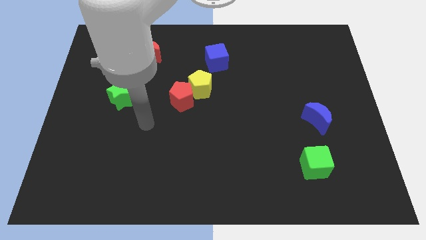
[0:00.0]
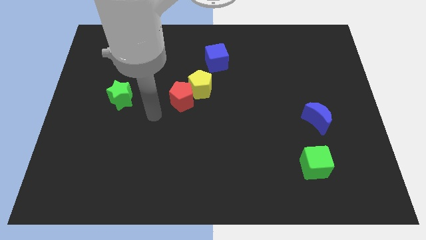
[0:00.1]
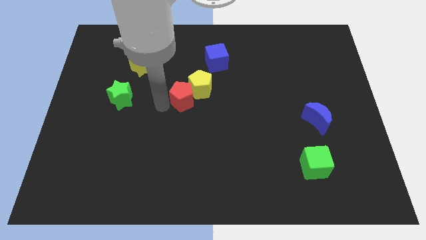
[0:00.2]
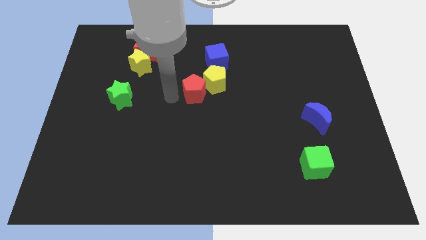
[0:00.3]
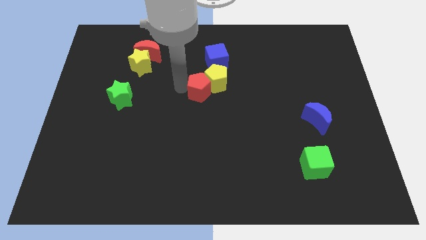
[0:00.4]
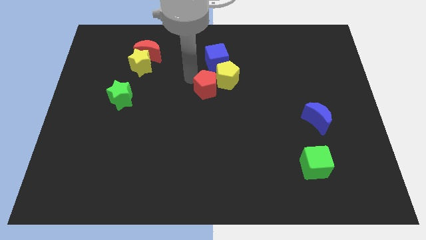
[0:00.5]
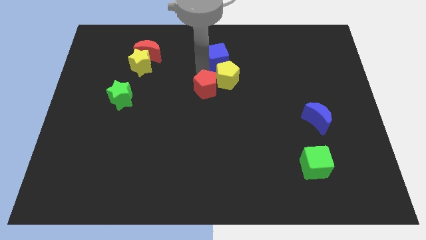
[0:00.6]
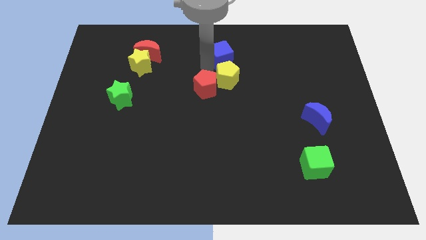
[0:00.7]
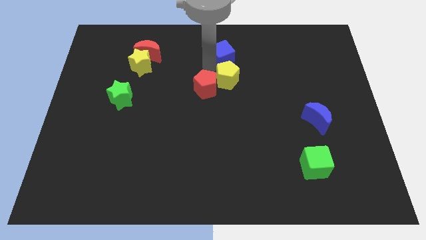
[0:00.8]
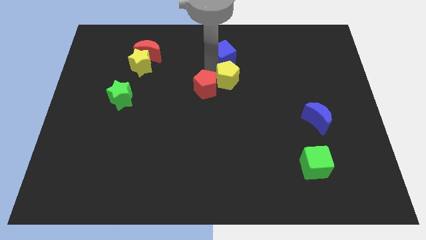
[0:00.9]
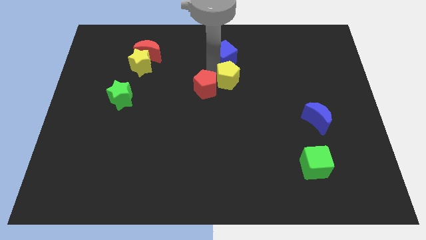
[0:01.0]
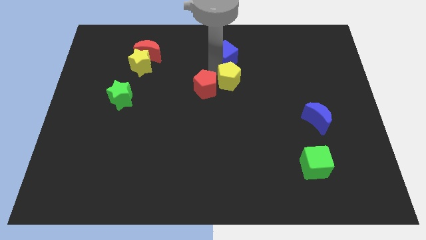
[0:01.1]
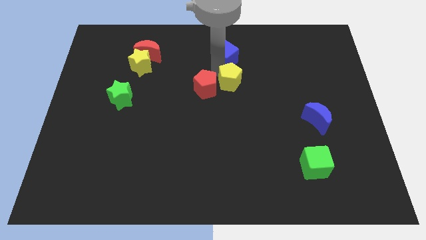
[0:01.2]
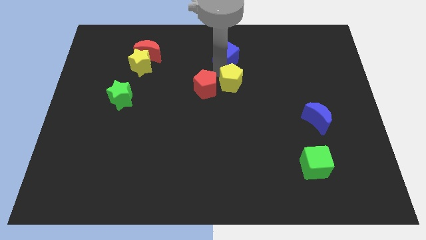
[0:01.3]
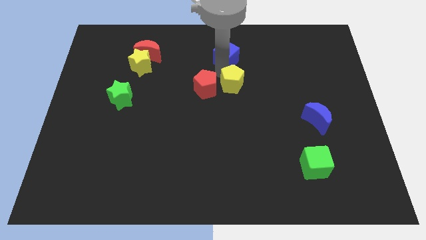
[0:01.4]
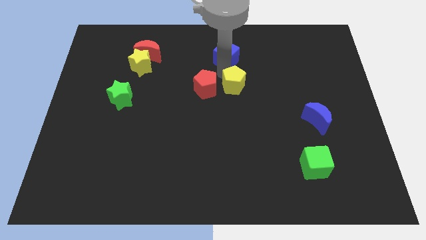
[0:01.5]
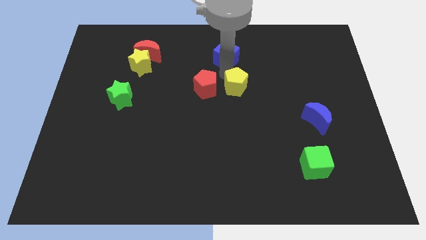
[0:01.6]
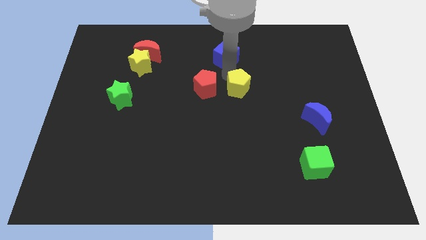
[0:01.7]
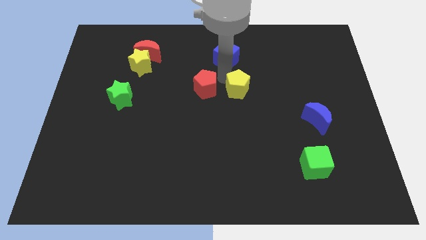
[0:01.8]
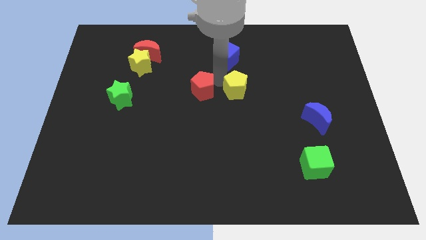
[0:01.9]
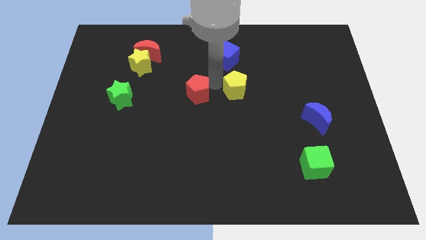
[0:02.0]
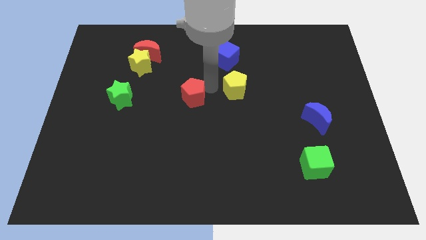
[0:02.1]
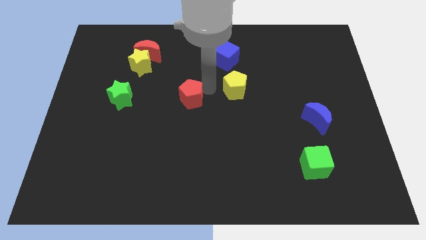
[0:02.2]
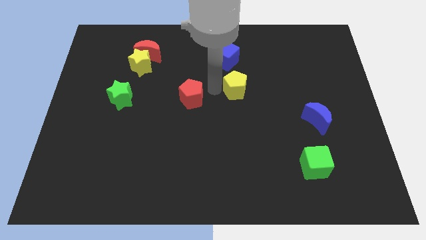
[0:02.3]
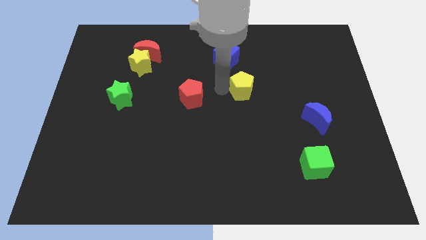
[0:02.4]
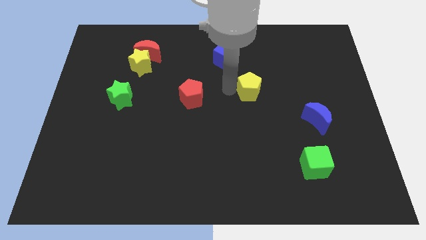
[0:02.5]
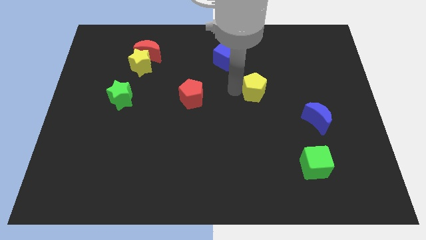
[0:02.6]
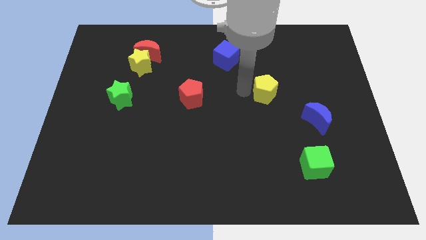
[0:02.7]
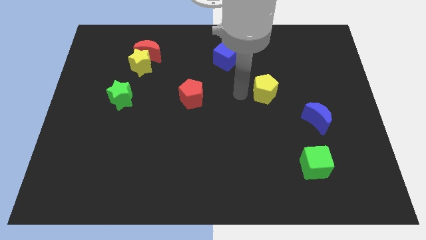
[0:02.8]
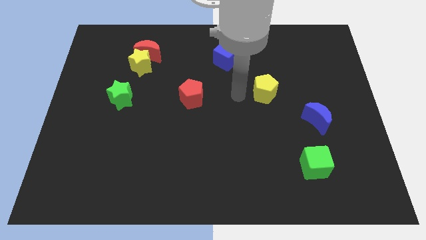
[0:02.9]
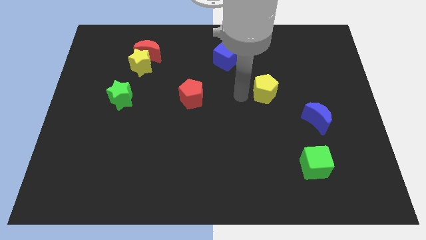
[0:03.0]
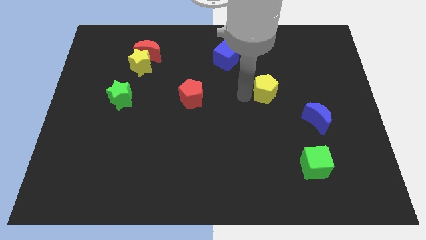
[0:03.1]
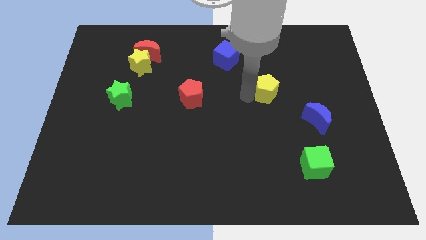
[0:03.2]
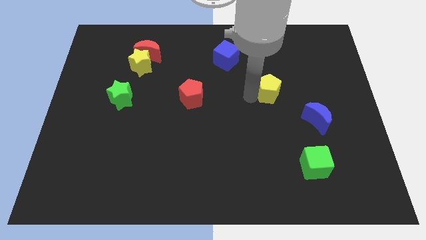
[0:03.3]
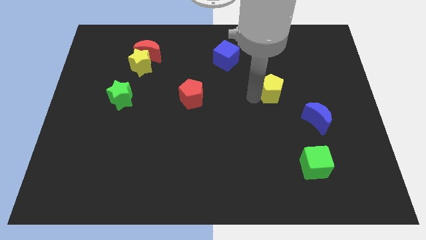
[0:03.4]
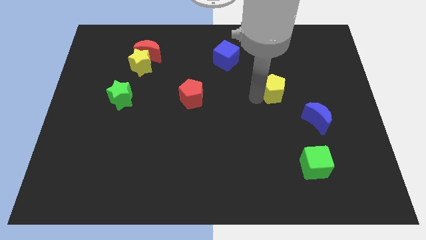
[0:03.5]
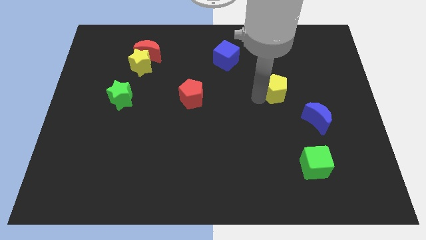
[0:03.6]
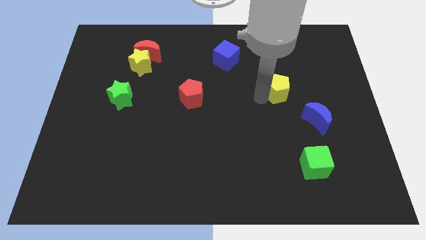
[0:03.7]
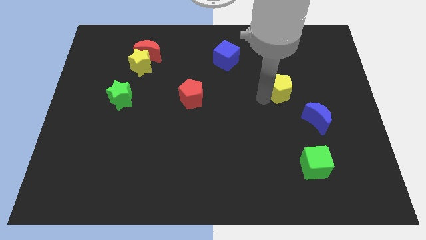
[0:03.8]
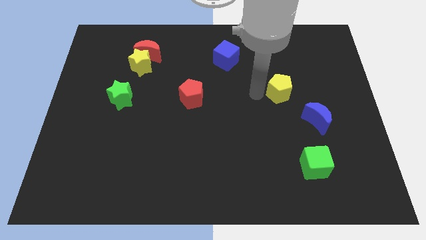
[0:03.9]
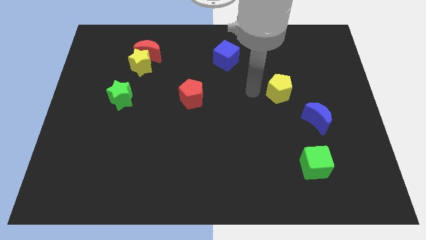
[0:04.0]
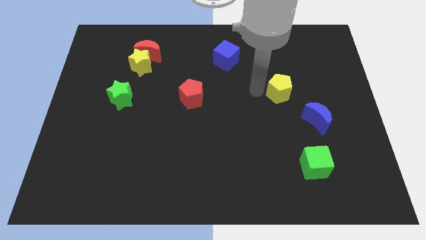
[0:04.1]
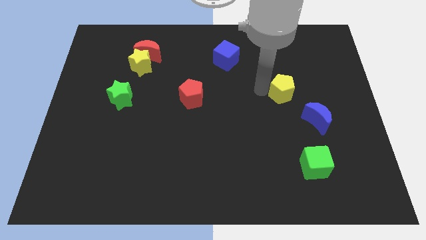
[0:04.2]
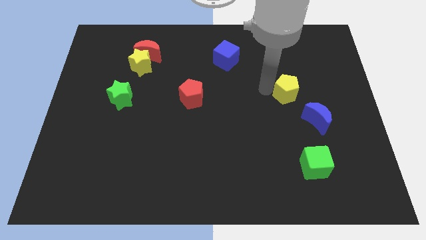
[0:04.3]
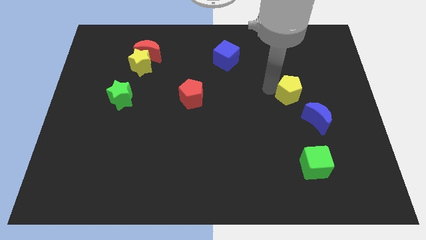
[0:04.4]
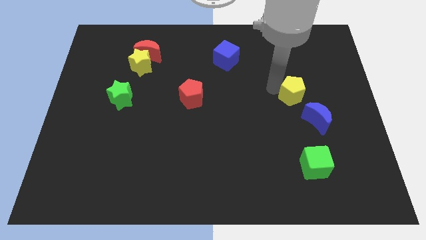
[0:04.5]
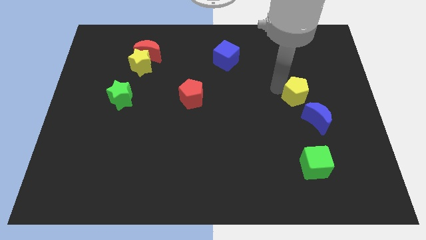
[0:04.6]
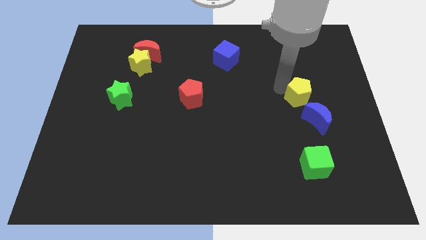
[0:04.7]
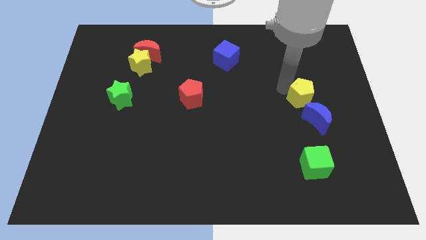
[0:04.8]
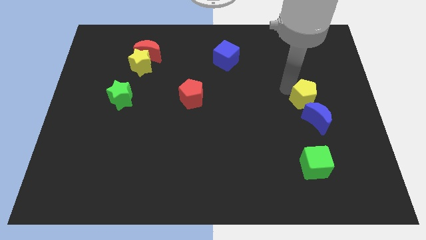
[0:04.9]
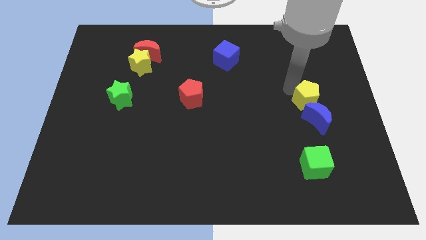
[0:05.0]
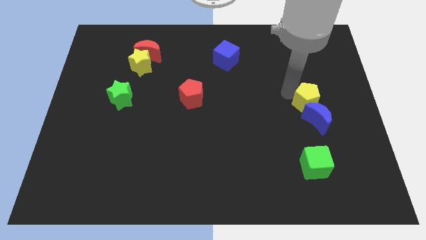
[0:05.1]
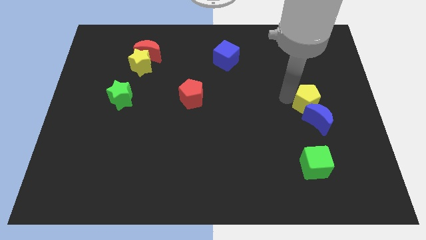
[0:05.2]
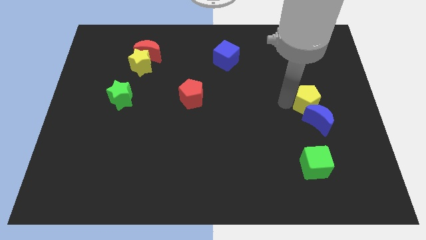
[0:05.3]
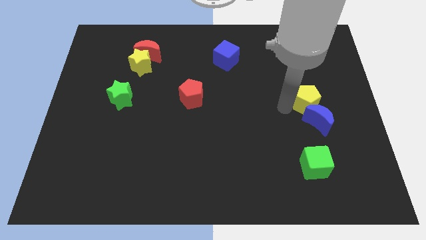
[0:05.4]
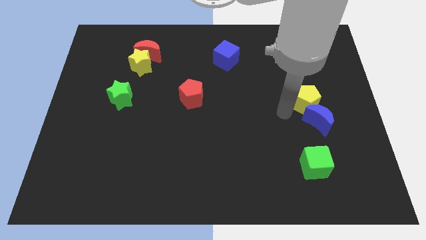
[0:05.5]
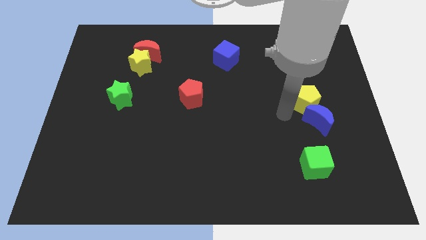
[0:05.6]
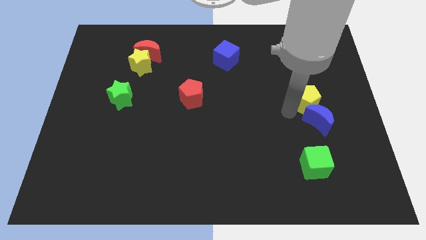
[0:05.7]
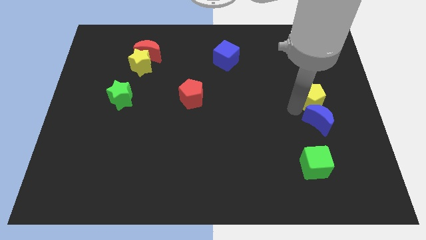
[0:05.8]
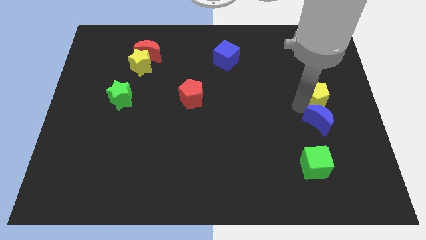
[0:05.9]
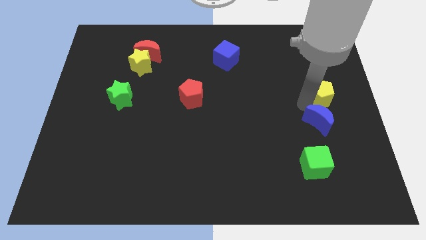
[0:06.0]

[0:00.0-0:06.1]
put the yellow pentagon to the right side

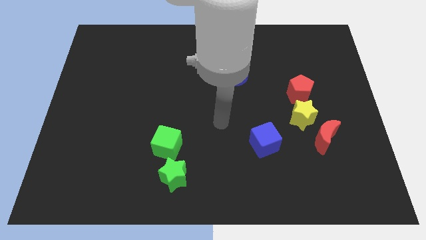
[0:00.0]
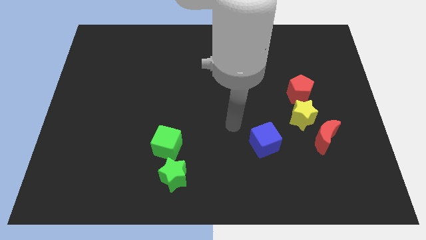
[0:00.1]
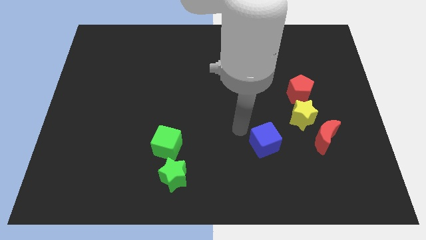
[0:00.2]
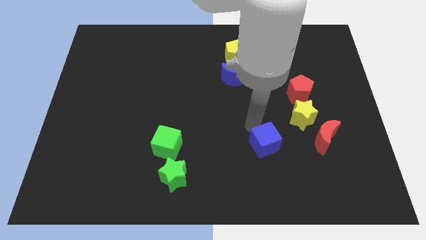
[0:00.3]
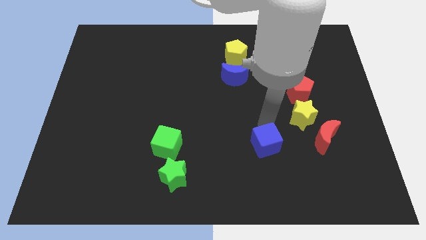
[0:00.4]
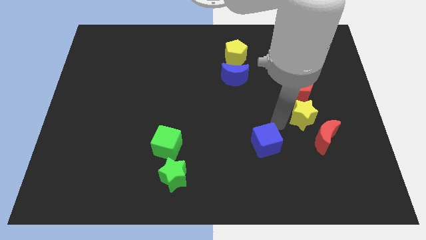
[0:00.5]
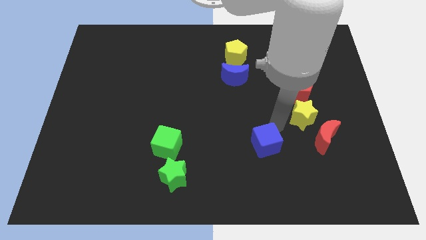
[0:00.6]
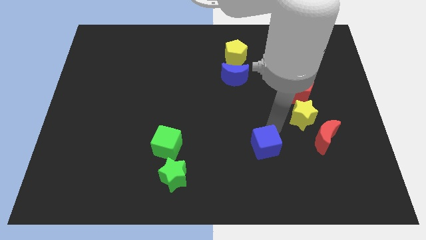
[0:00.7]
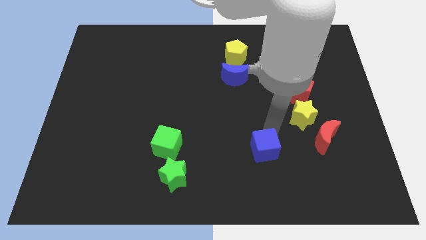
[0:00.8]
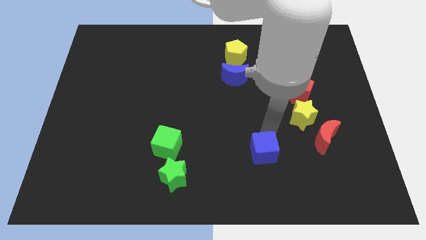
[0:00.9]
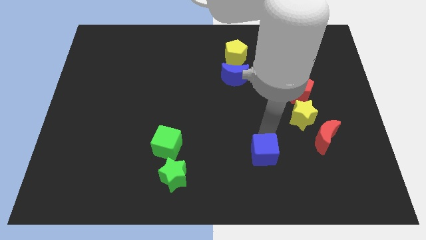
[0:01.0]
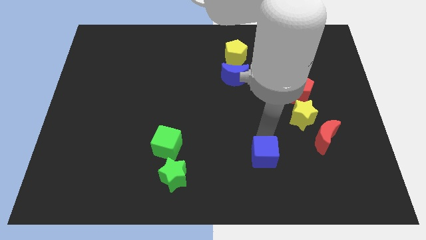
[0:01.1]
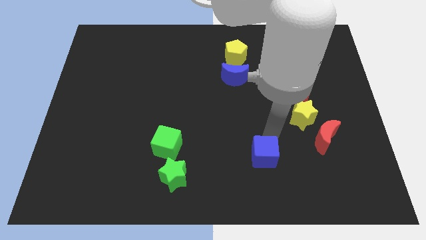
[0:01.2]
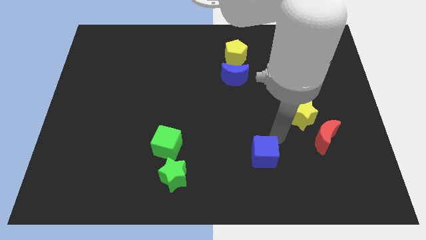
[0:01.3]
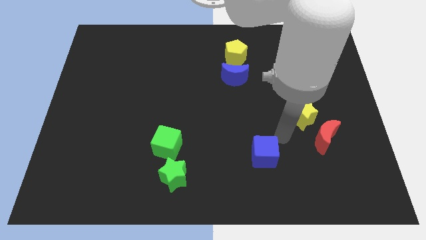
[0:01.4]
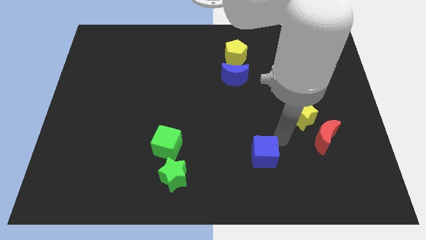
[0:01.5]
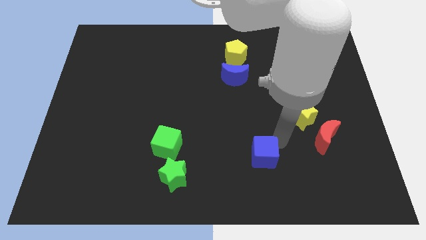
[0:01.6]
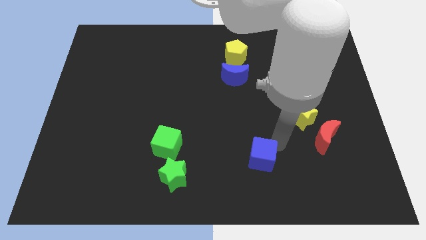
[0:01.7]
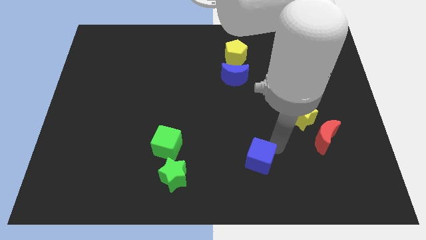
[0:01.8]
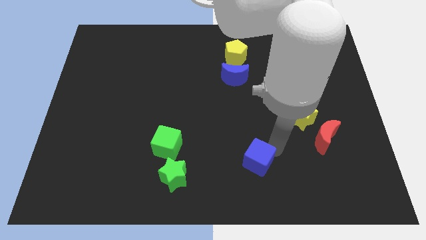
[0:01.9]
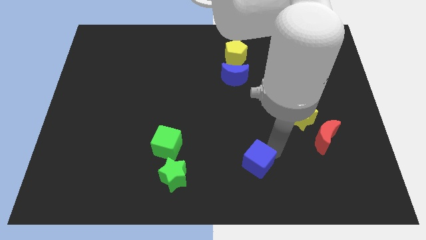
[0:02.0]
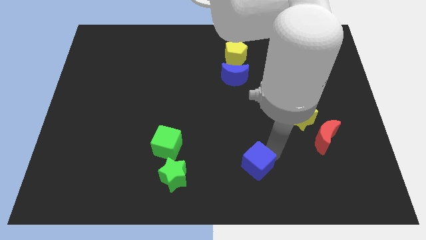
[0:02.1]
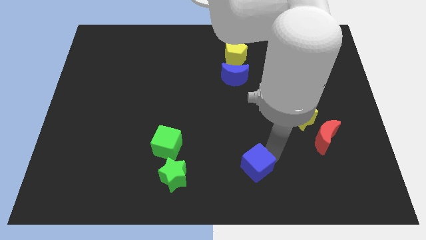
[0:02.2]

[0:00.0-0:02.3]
slide the blue cube to the bottom side
